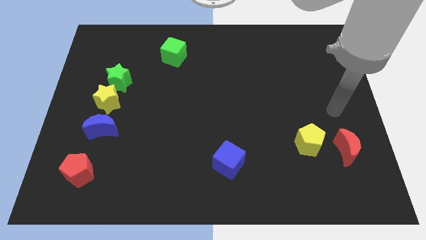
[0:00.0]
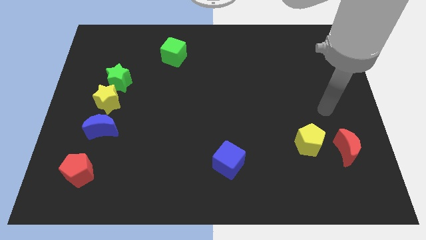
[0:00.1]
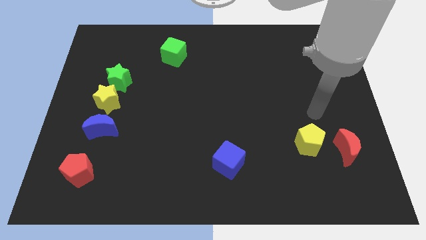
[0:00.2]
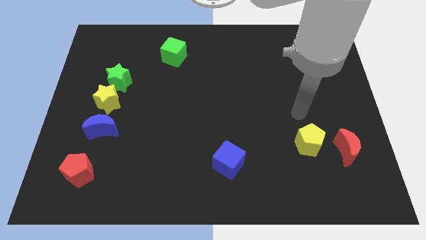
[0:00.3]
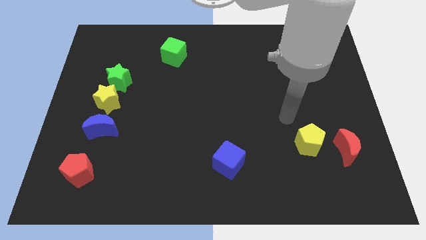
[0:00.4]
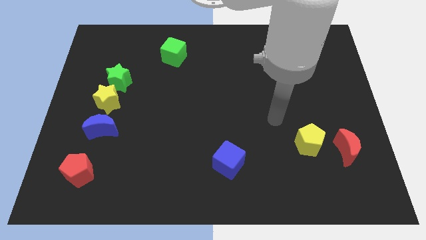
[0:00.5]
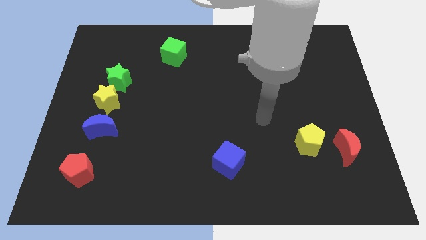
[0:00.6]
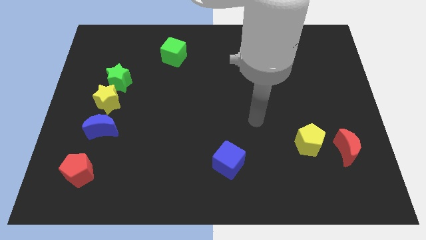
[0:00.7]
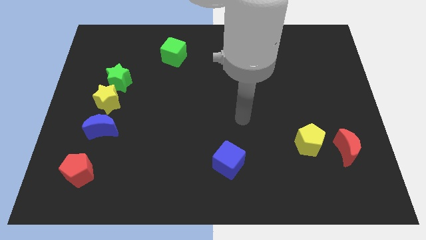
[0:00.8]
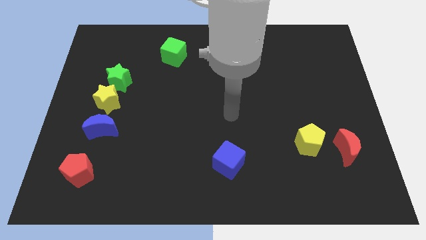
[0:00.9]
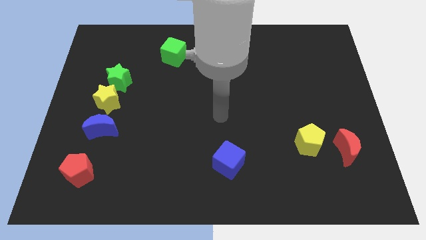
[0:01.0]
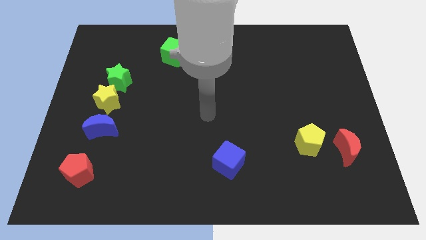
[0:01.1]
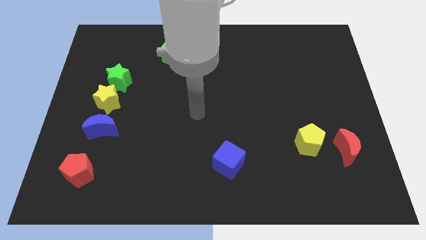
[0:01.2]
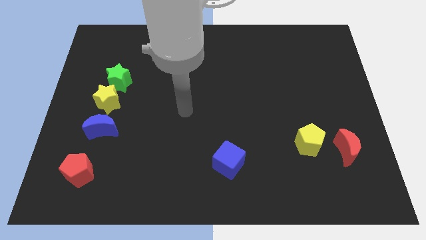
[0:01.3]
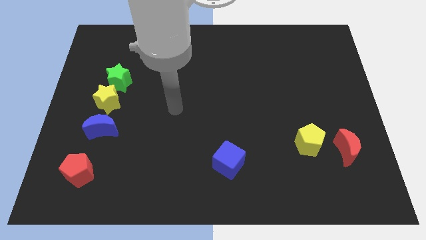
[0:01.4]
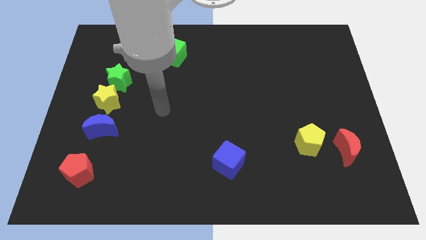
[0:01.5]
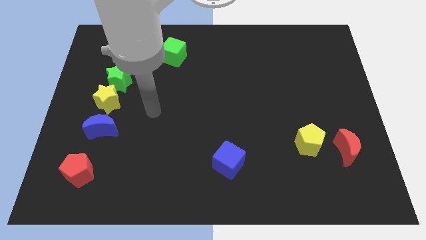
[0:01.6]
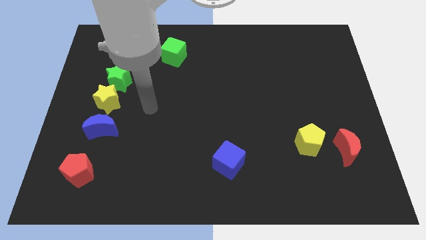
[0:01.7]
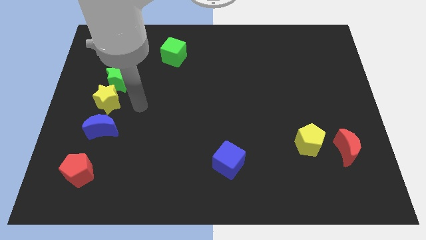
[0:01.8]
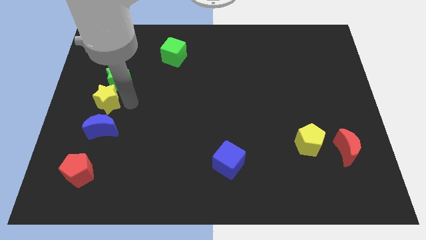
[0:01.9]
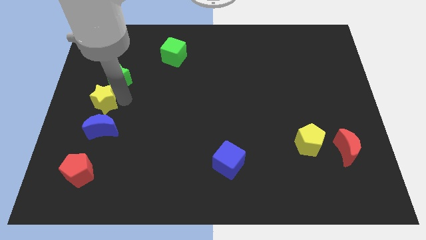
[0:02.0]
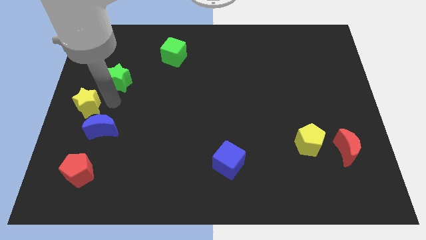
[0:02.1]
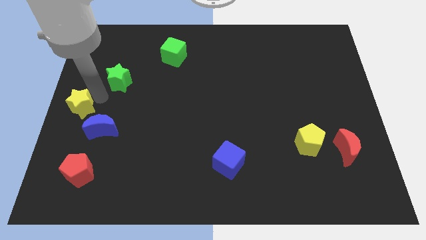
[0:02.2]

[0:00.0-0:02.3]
separate the green star from the yellow star

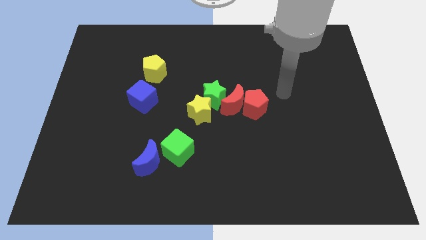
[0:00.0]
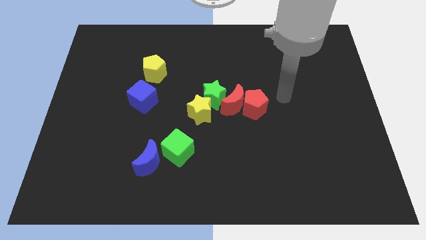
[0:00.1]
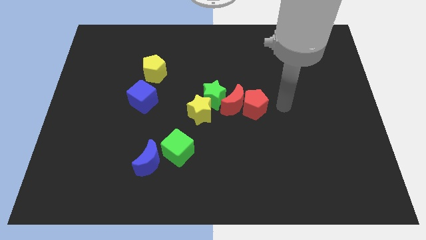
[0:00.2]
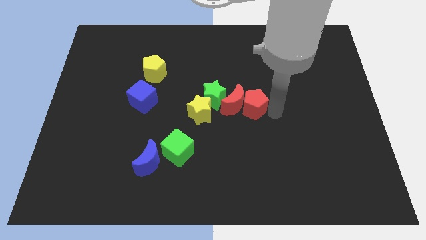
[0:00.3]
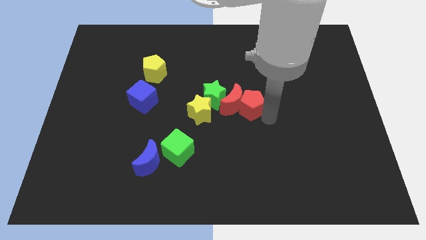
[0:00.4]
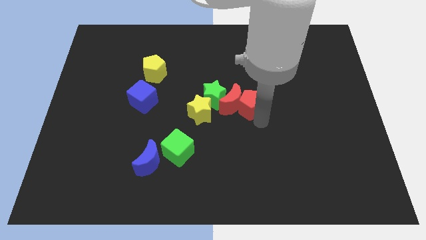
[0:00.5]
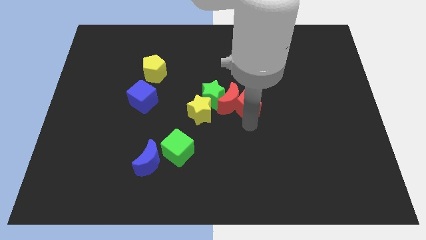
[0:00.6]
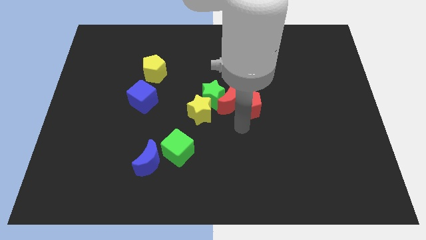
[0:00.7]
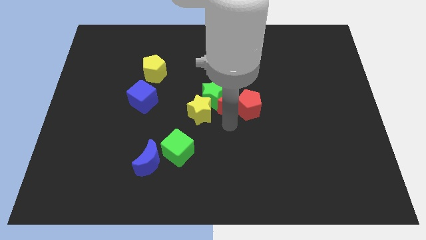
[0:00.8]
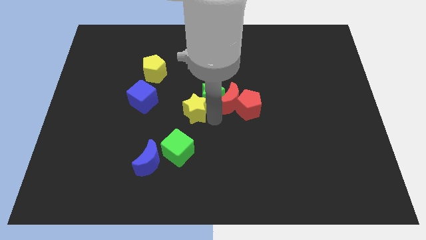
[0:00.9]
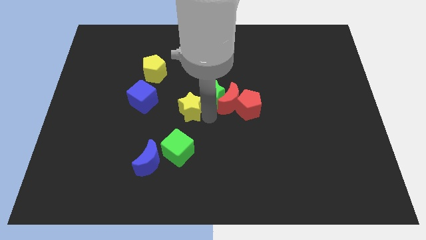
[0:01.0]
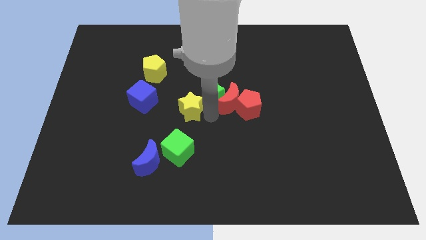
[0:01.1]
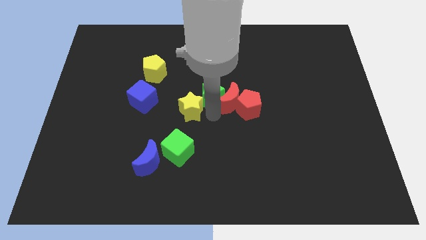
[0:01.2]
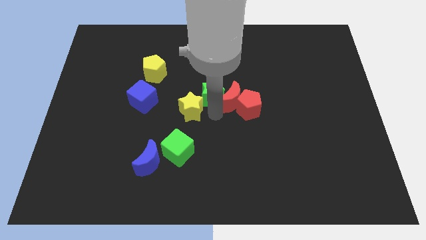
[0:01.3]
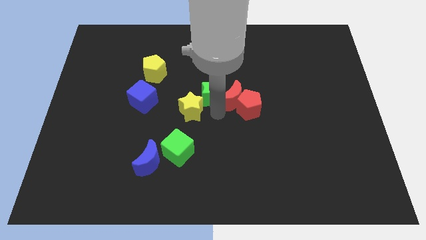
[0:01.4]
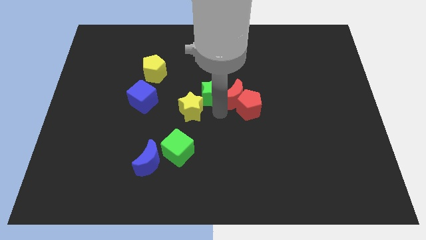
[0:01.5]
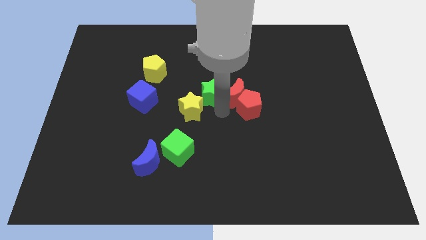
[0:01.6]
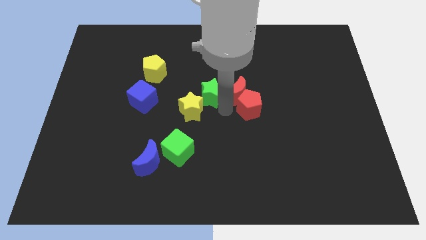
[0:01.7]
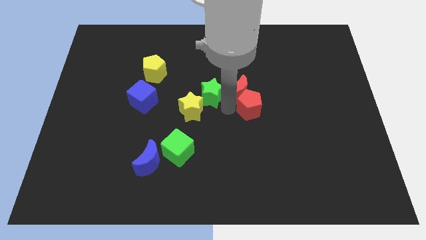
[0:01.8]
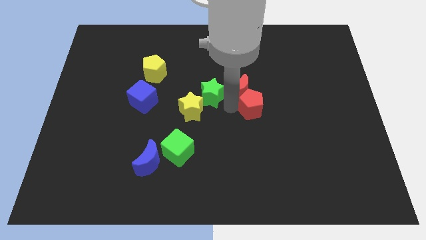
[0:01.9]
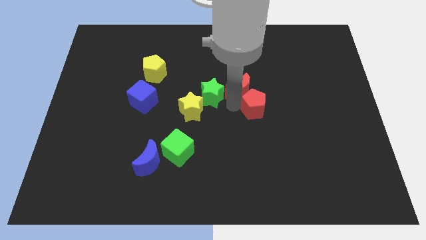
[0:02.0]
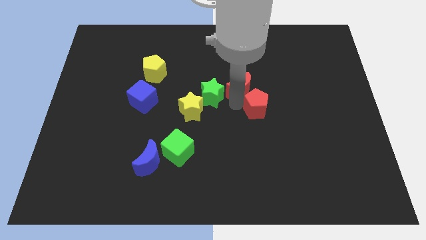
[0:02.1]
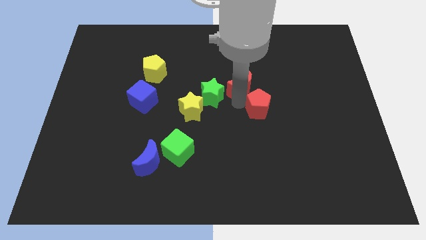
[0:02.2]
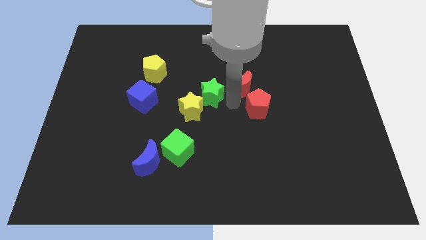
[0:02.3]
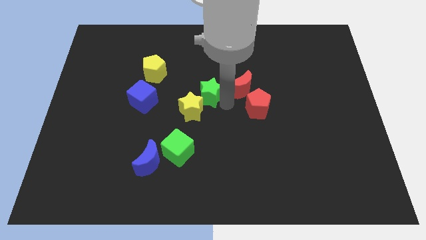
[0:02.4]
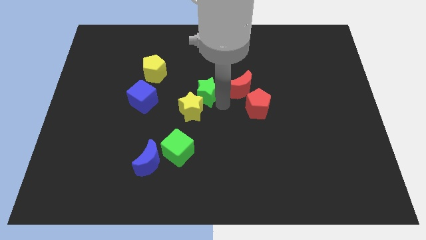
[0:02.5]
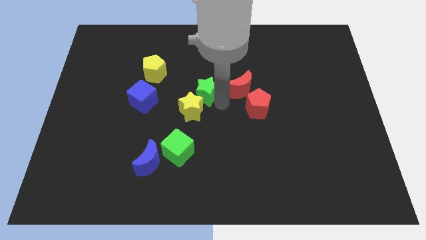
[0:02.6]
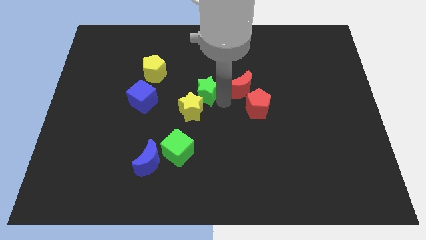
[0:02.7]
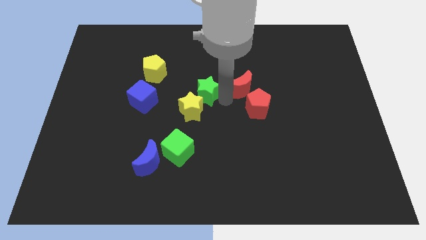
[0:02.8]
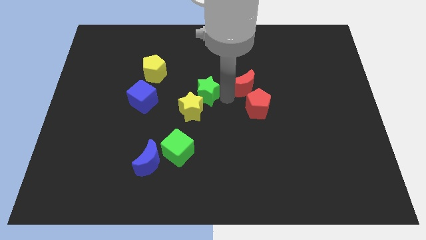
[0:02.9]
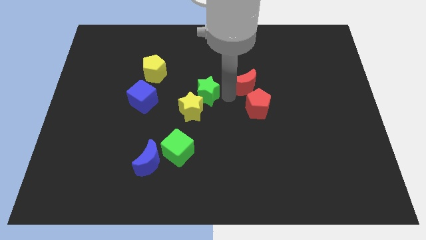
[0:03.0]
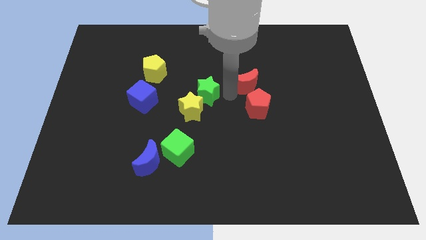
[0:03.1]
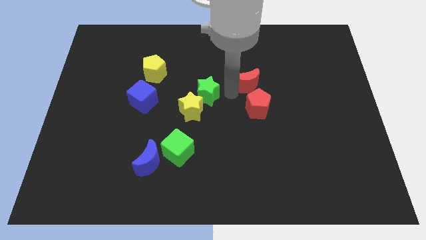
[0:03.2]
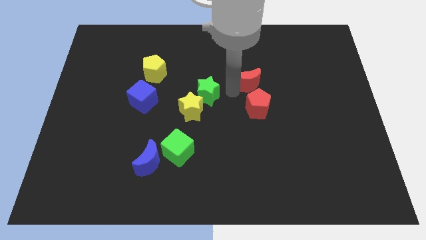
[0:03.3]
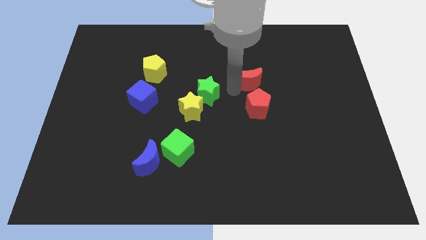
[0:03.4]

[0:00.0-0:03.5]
separate the red moon from the clump

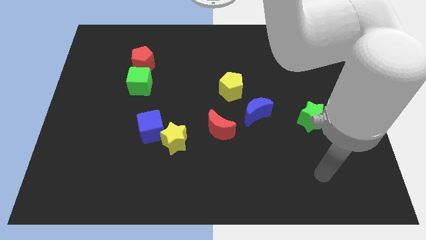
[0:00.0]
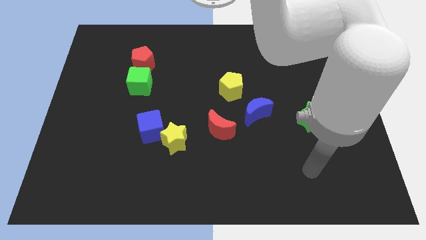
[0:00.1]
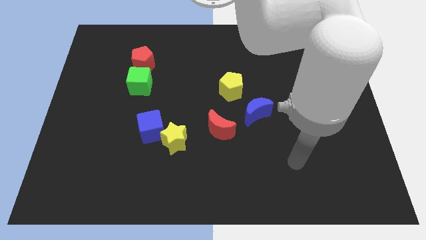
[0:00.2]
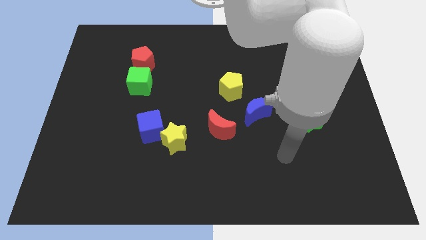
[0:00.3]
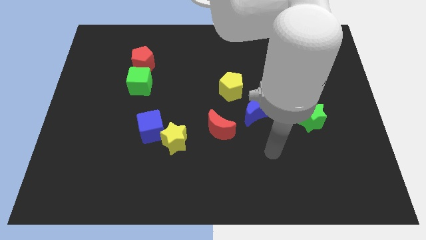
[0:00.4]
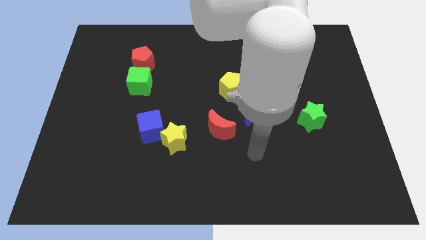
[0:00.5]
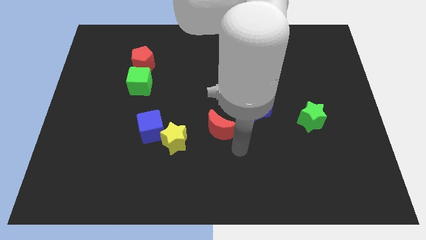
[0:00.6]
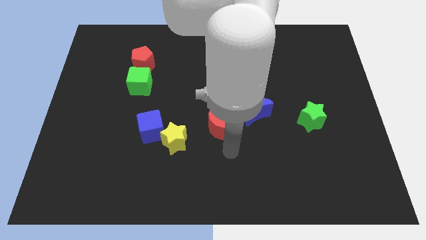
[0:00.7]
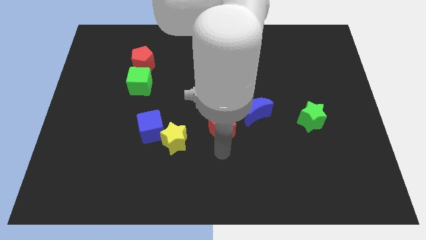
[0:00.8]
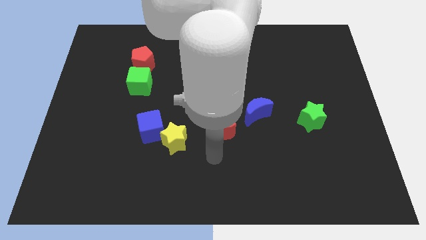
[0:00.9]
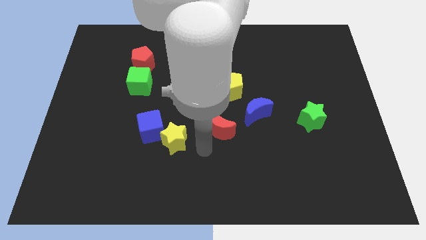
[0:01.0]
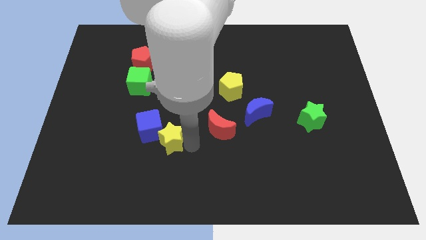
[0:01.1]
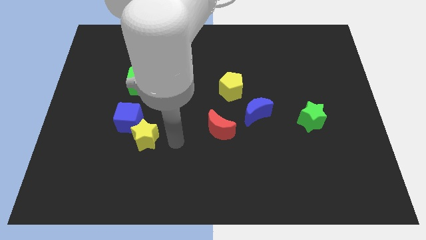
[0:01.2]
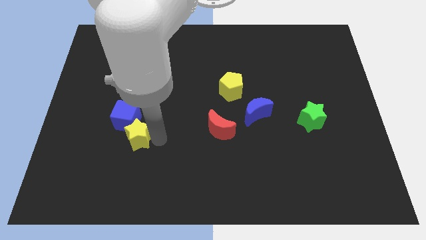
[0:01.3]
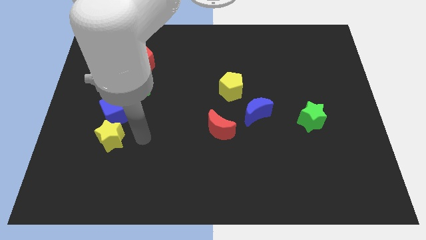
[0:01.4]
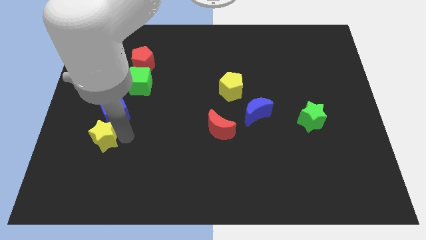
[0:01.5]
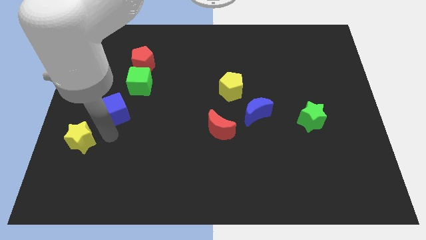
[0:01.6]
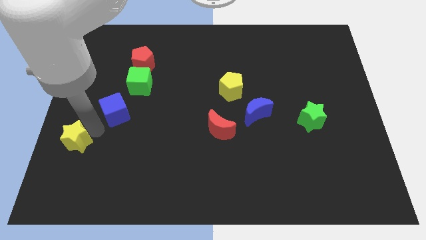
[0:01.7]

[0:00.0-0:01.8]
separate the blue cube from the yellow star

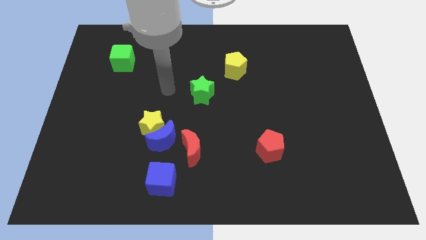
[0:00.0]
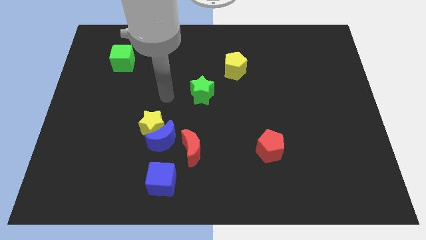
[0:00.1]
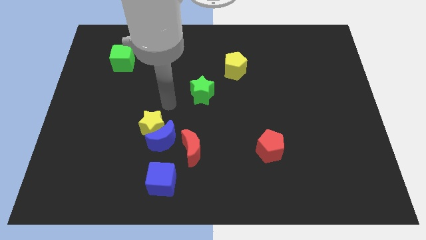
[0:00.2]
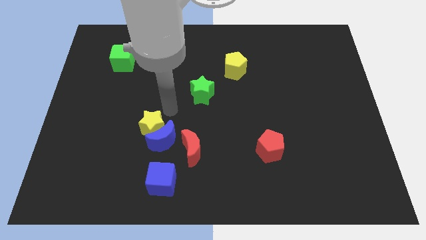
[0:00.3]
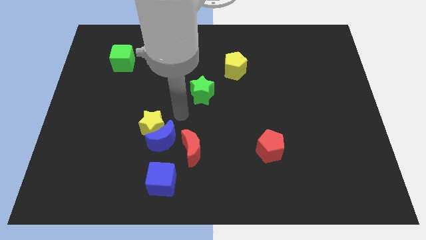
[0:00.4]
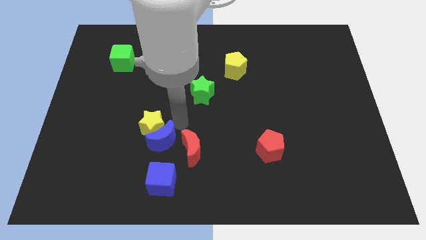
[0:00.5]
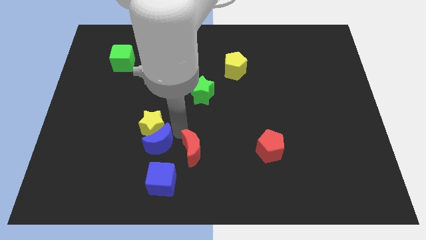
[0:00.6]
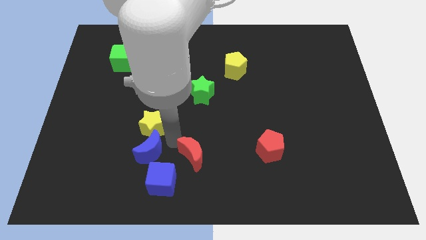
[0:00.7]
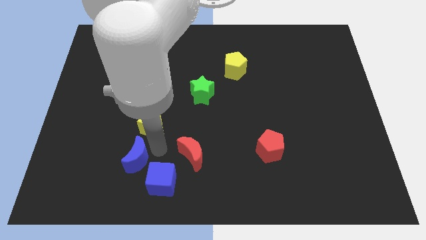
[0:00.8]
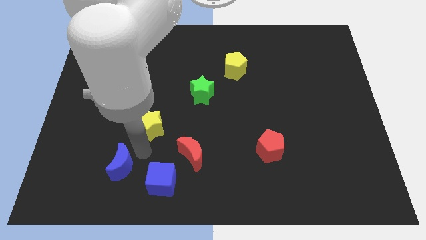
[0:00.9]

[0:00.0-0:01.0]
separate the yellow star from the blue moon

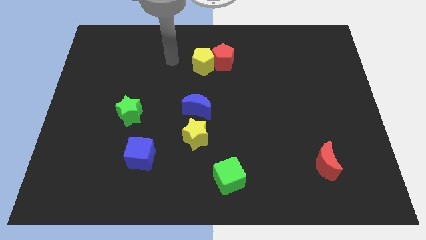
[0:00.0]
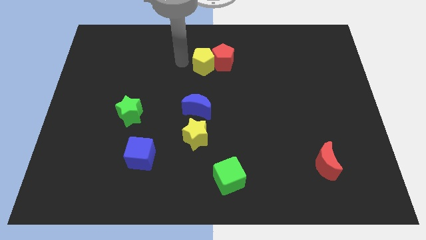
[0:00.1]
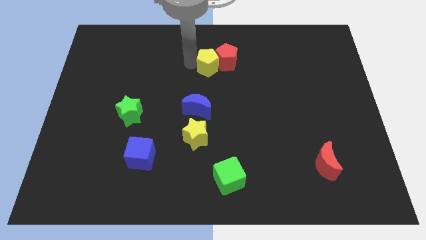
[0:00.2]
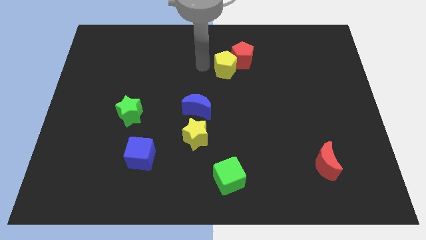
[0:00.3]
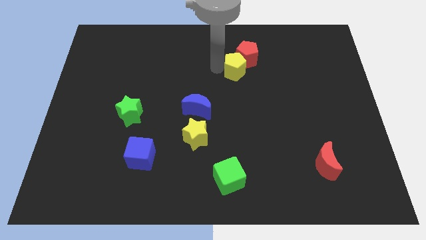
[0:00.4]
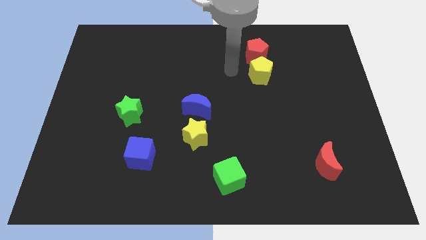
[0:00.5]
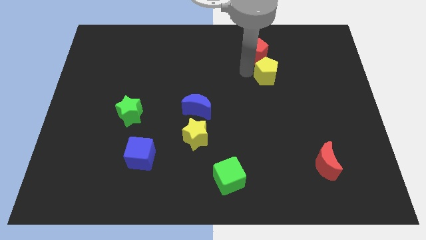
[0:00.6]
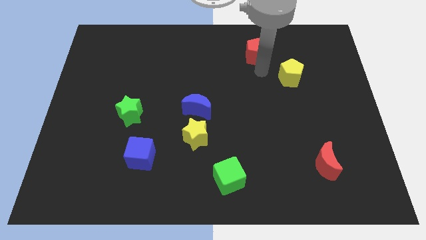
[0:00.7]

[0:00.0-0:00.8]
pull the red pentagon apart from the yellow pentagon
